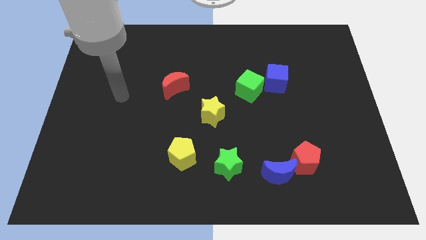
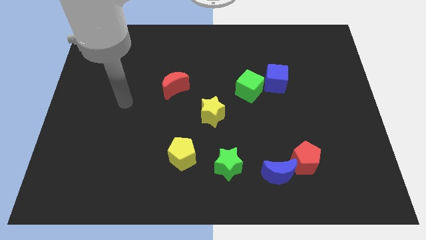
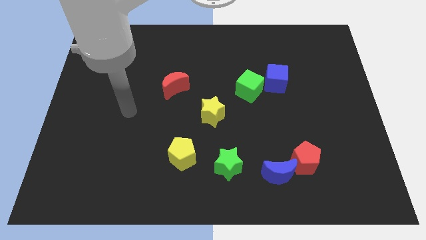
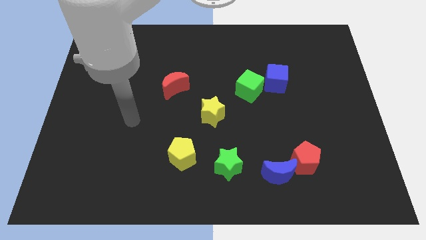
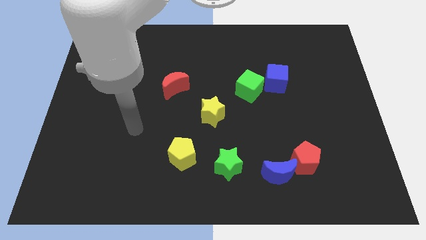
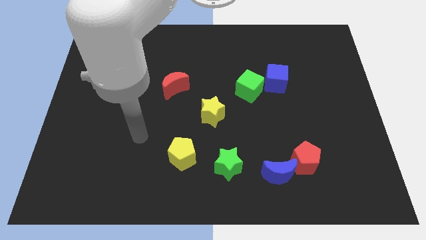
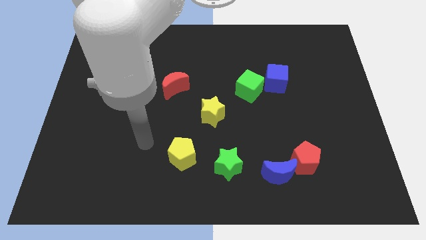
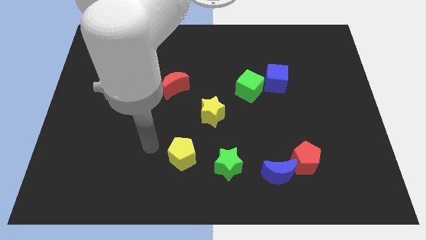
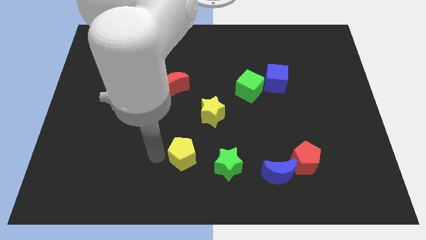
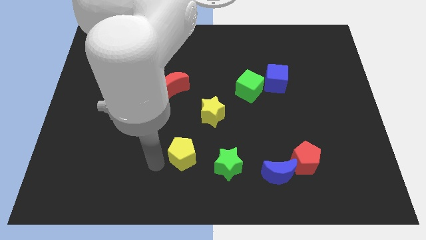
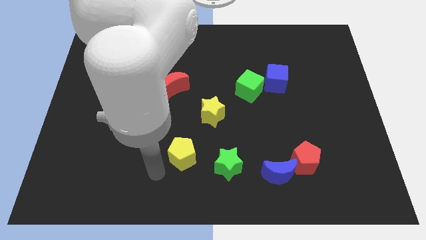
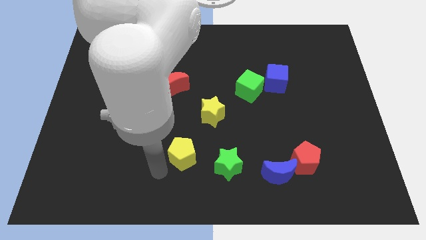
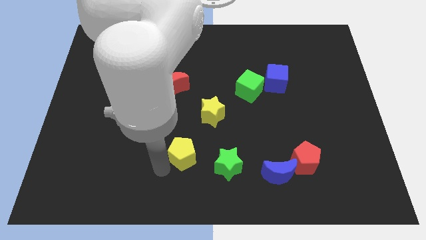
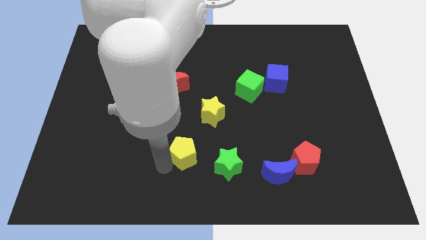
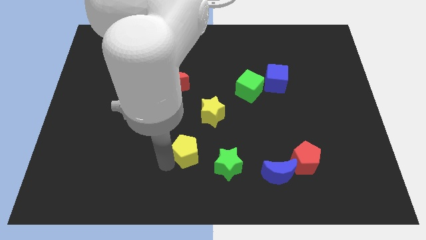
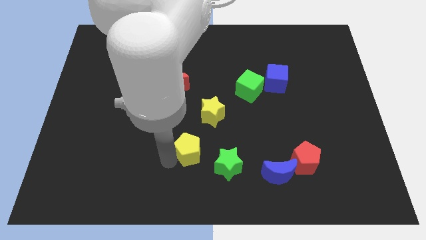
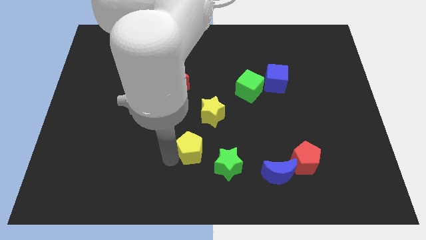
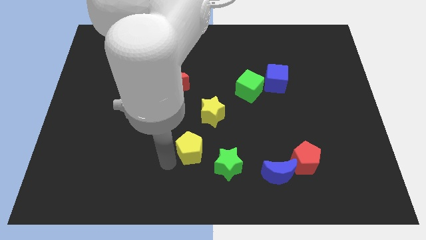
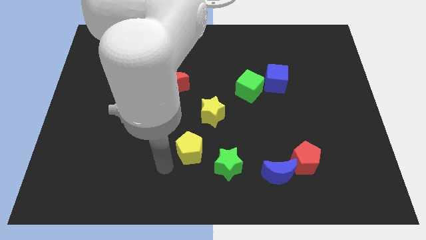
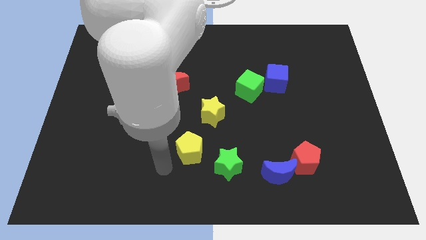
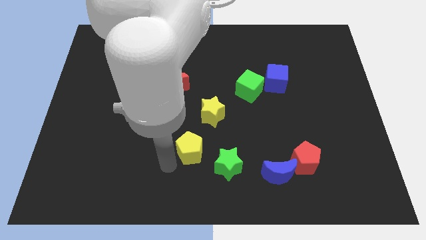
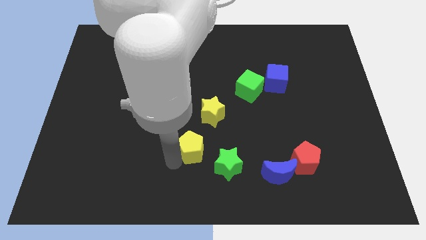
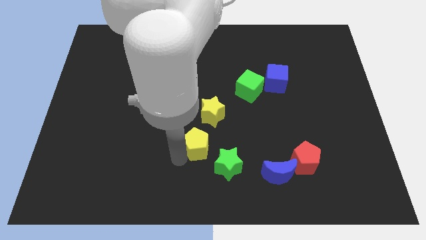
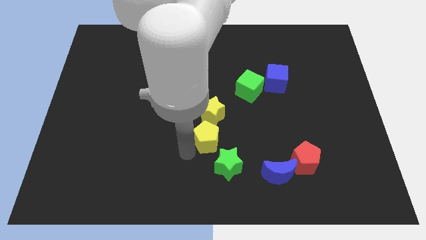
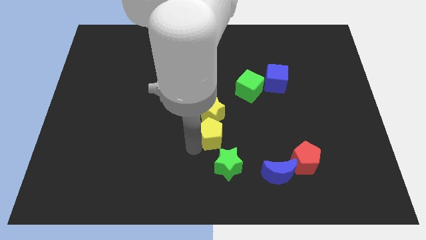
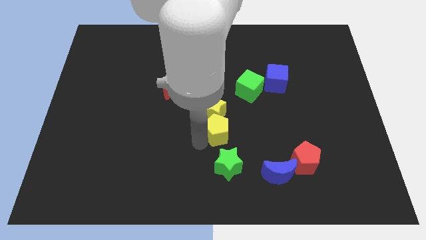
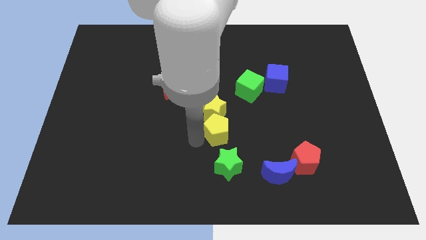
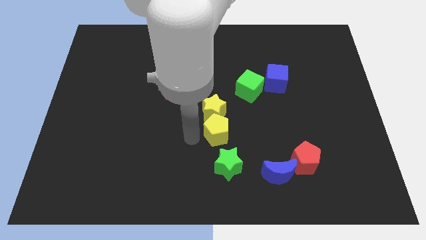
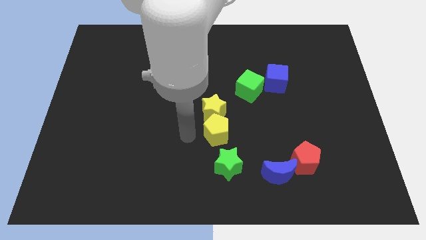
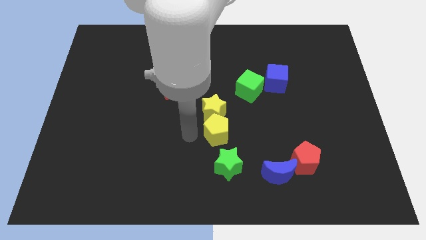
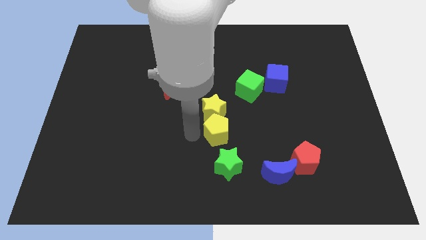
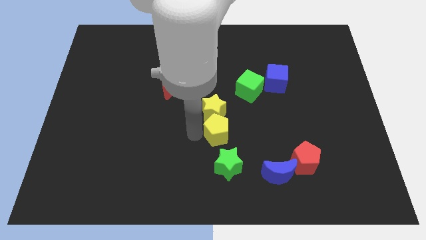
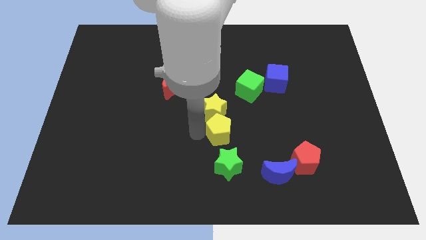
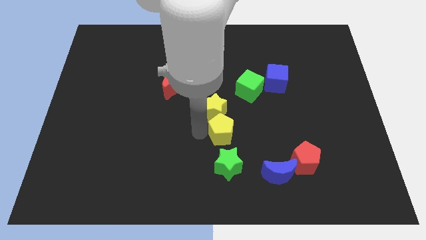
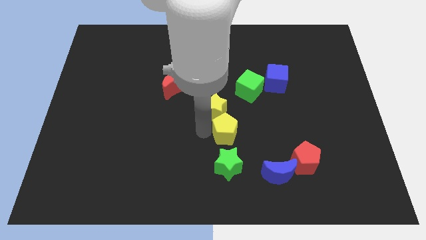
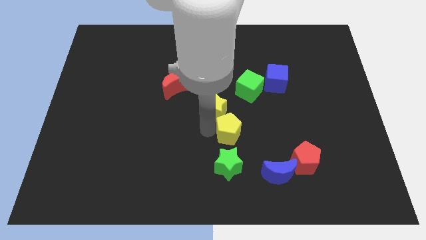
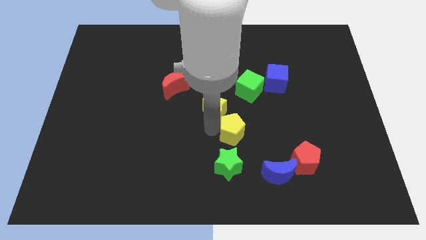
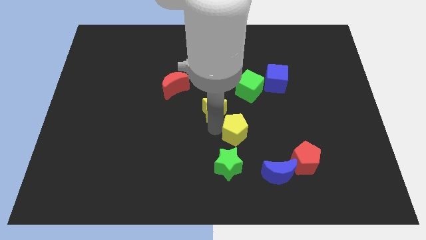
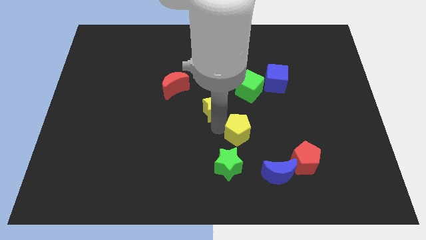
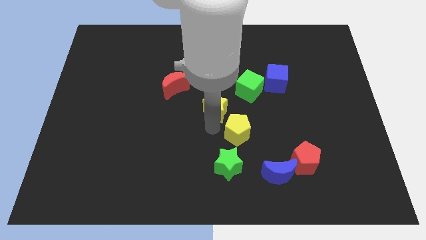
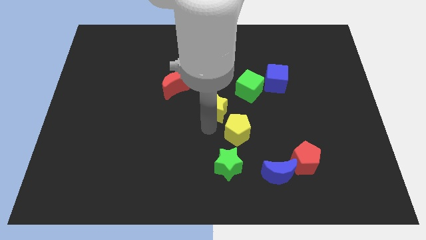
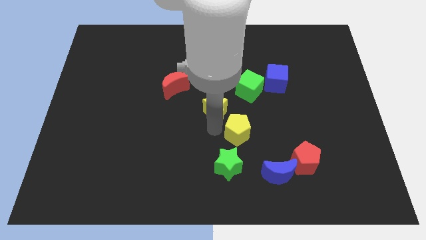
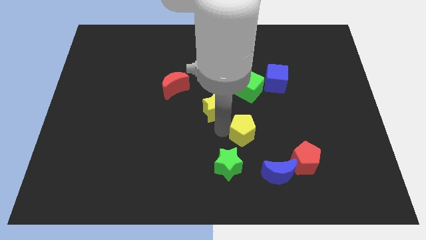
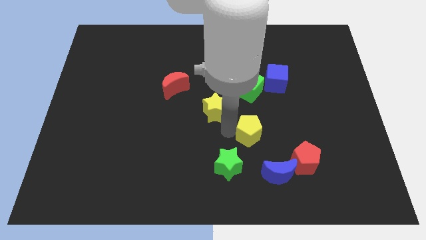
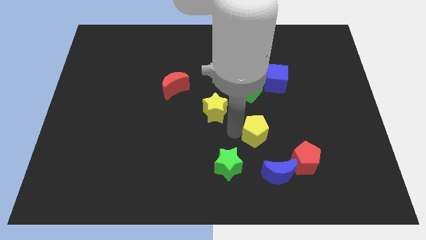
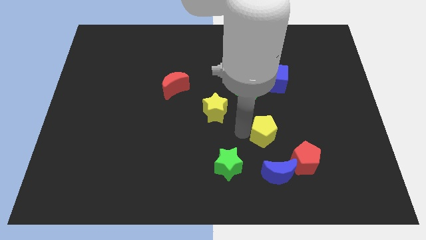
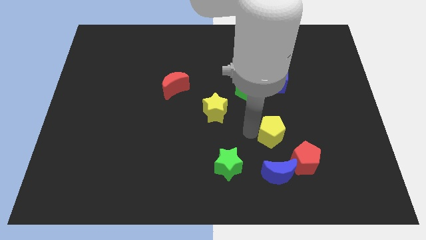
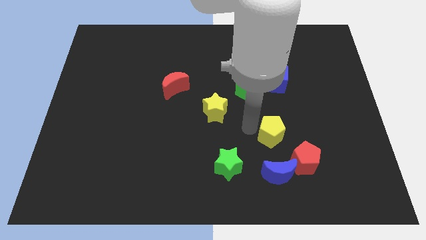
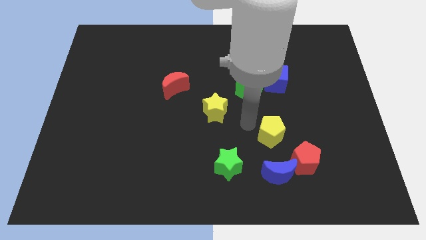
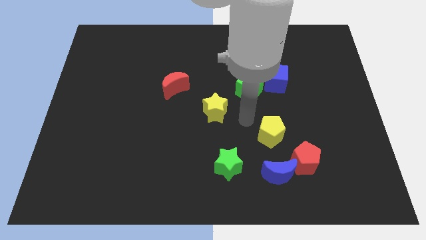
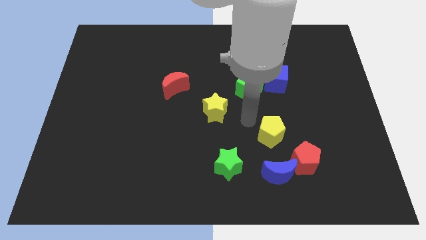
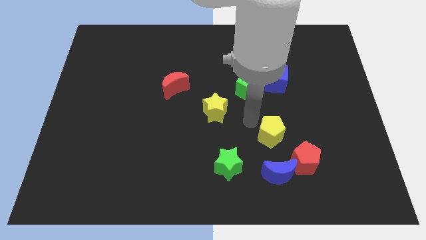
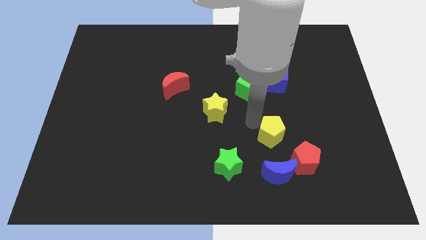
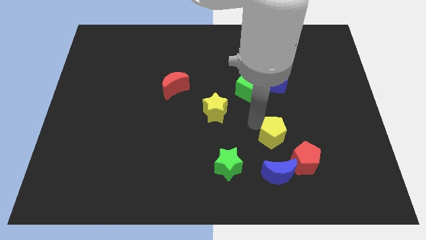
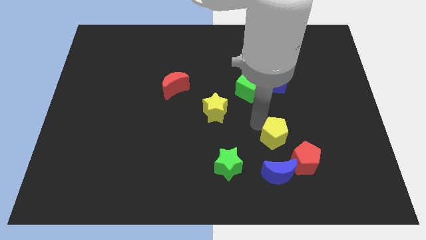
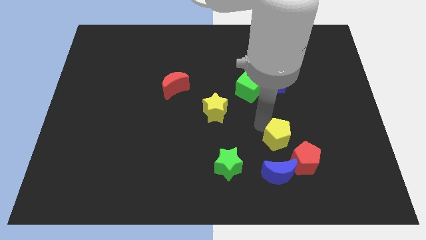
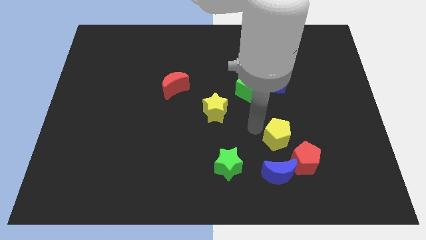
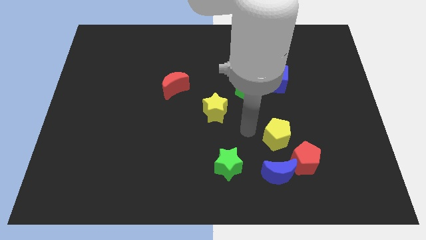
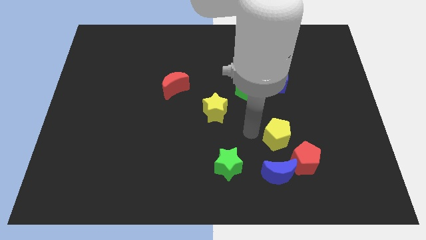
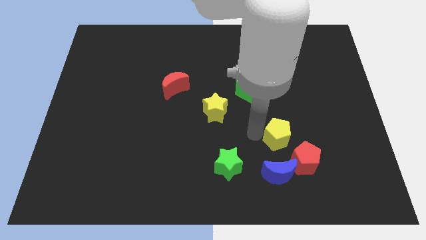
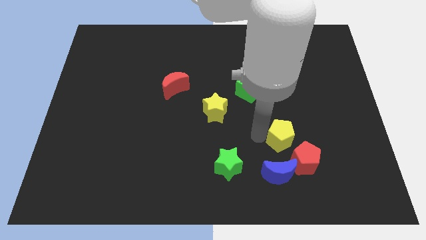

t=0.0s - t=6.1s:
push the yellow pentagon right

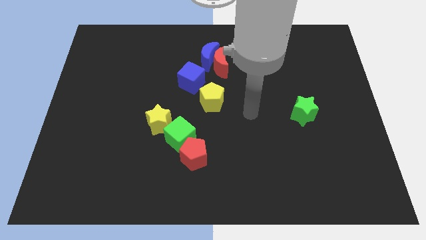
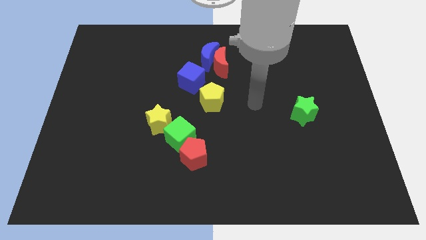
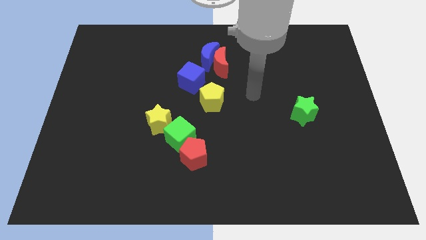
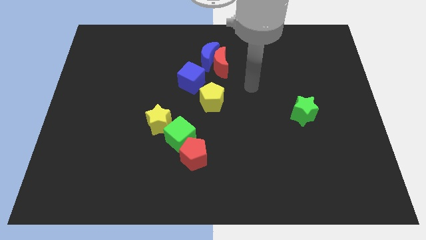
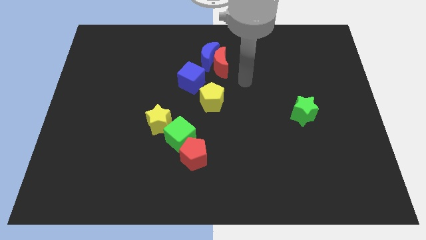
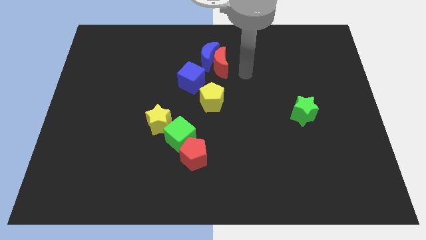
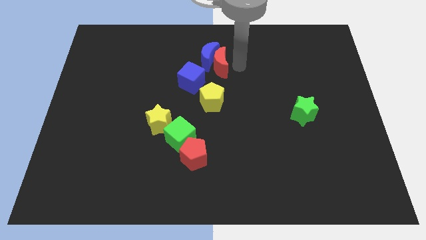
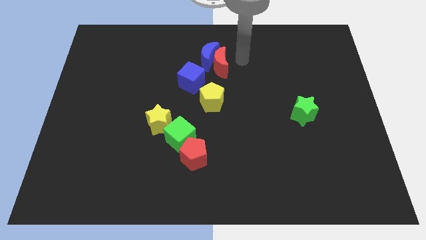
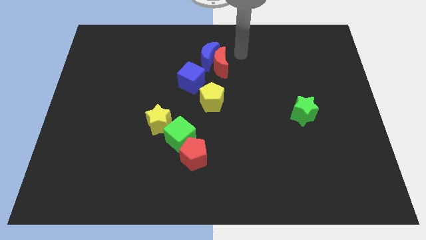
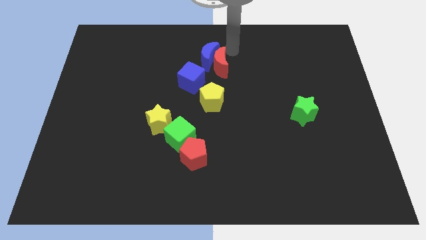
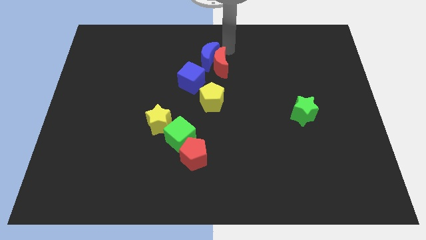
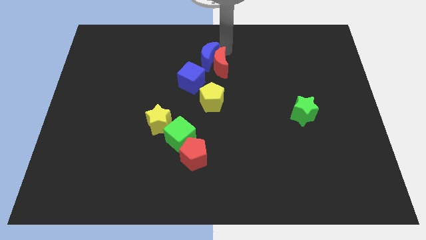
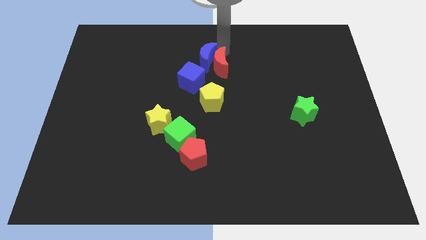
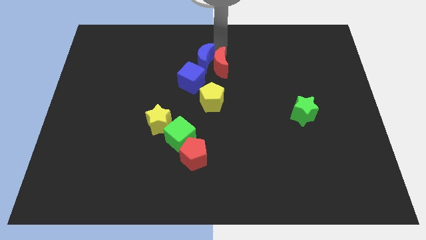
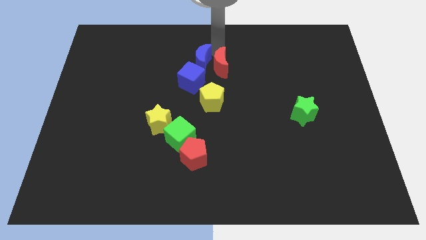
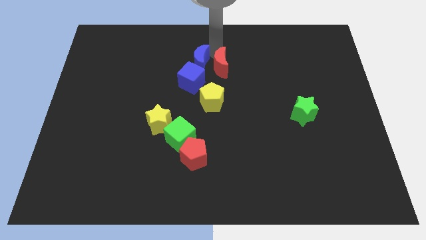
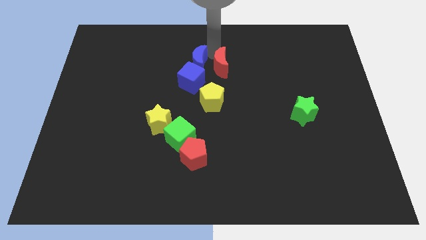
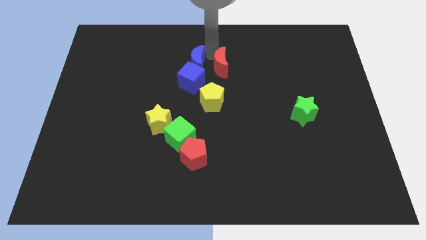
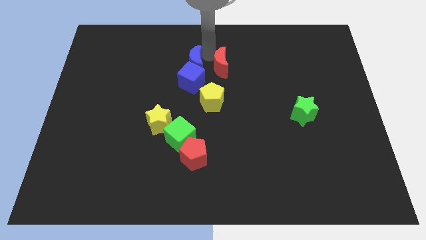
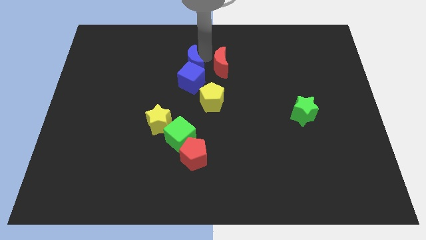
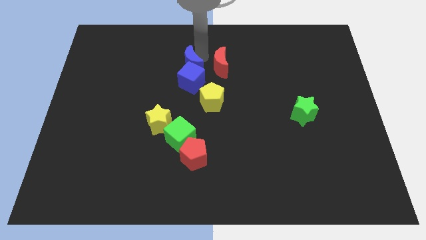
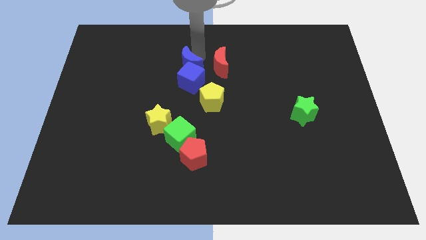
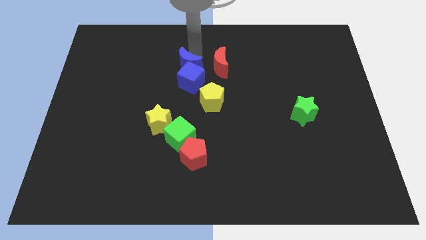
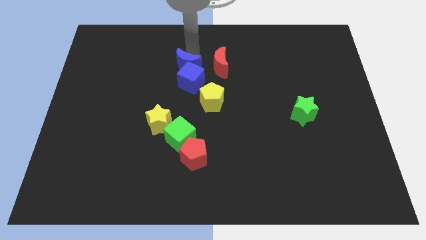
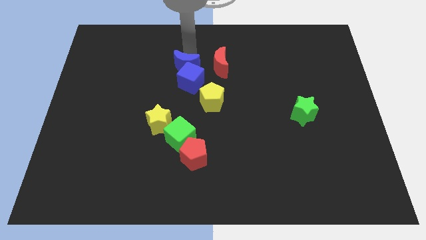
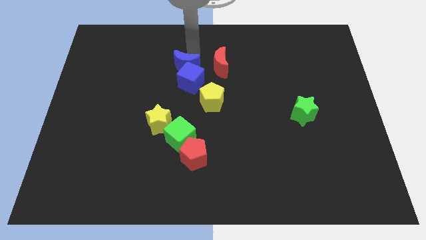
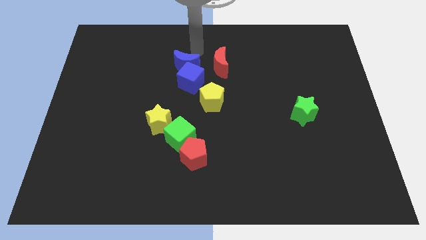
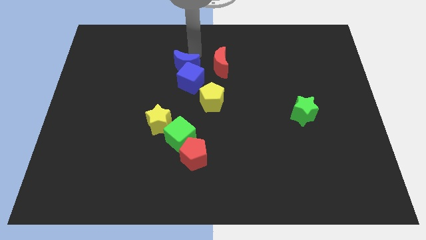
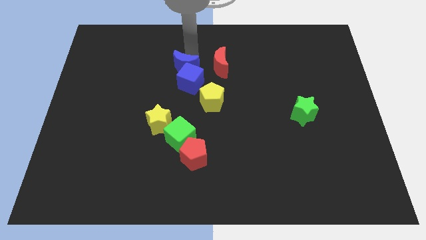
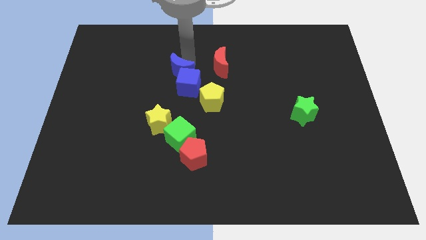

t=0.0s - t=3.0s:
push the blue moon a bit downwards and then to the left
